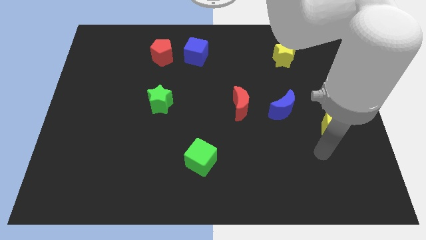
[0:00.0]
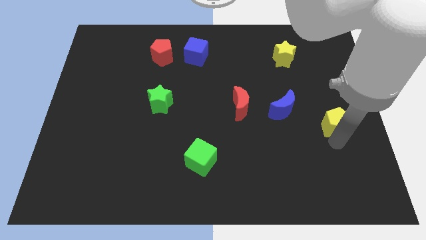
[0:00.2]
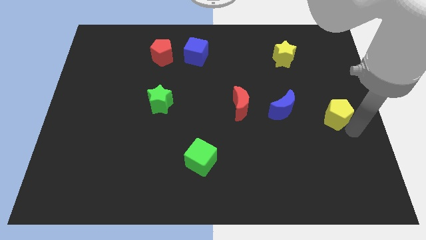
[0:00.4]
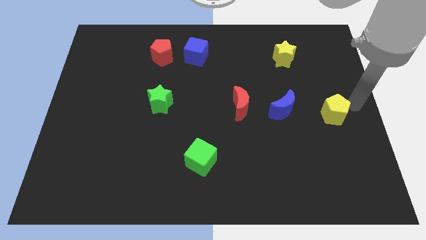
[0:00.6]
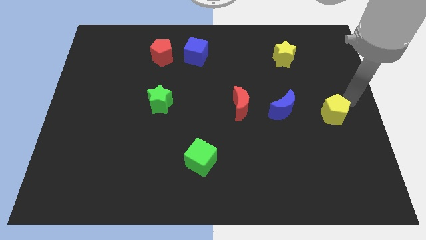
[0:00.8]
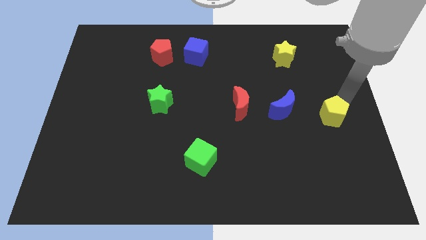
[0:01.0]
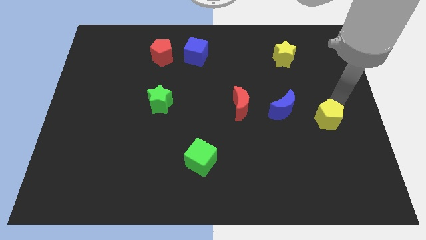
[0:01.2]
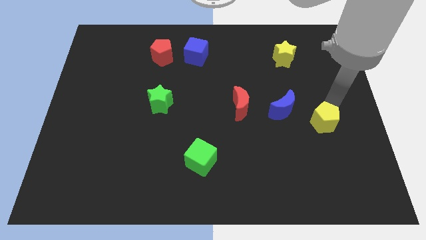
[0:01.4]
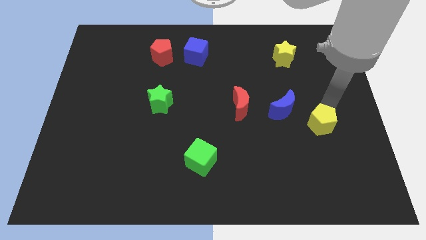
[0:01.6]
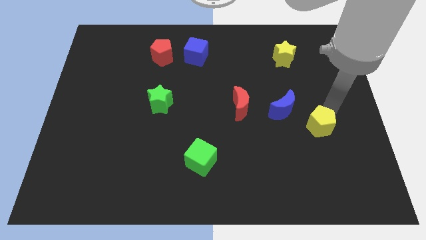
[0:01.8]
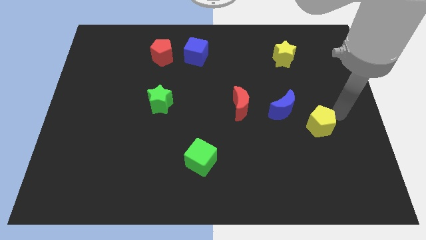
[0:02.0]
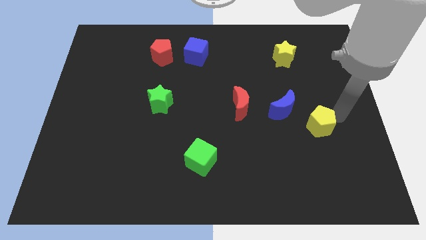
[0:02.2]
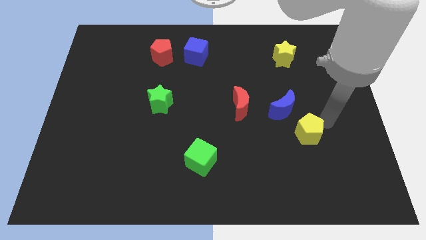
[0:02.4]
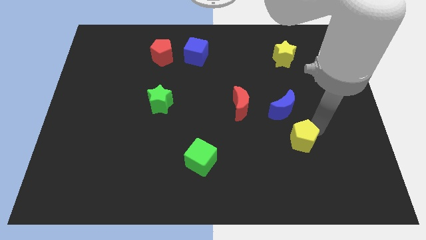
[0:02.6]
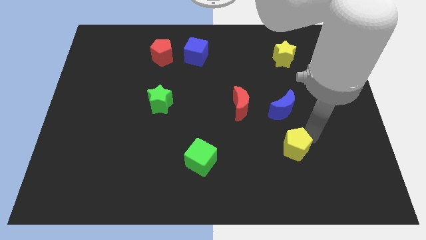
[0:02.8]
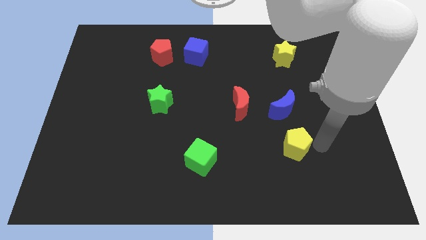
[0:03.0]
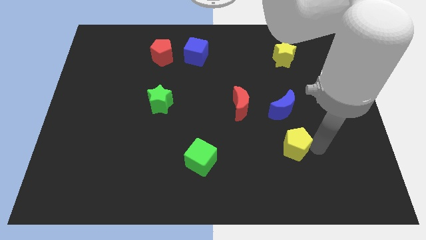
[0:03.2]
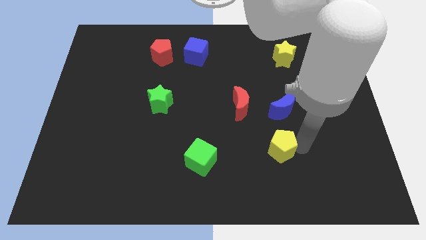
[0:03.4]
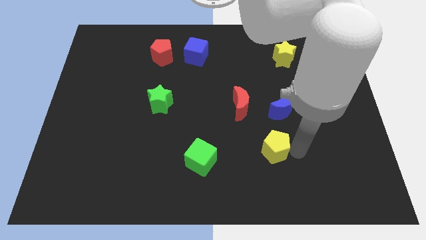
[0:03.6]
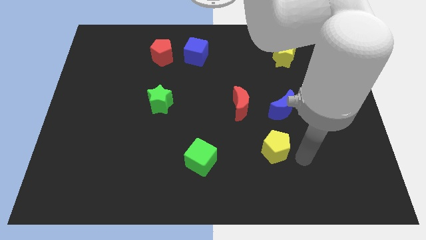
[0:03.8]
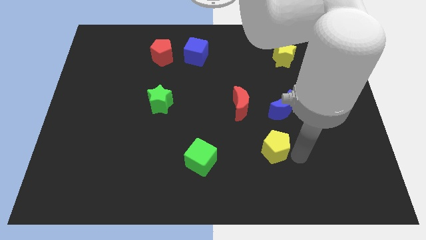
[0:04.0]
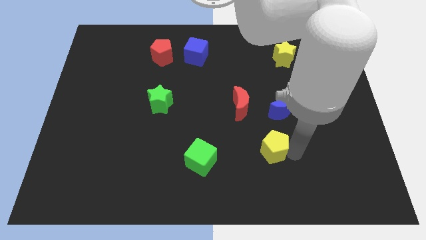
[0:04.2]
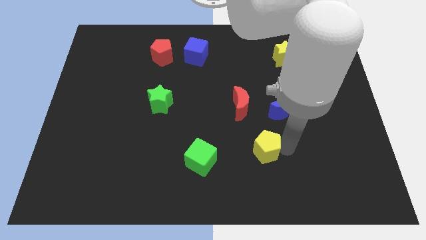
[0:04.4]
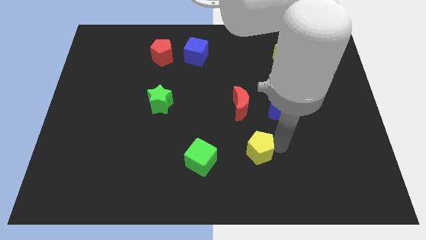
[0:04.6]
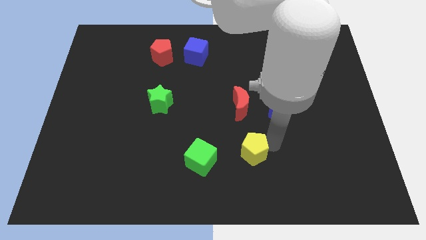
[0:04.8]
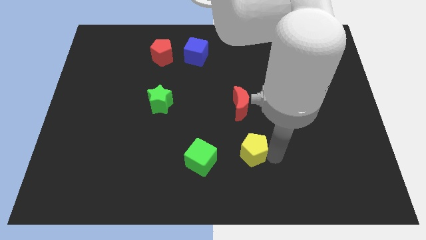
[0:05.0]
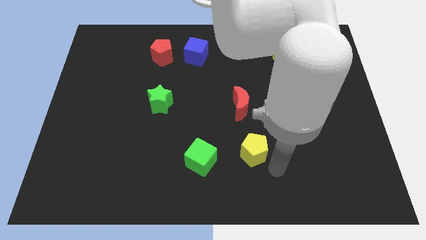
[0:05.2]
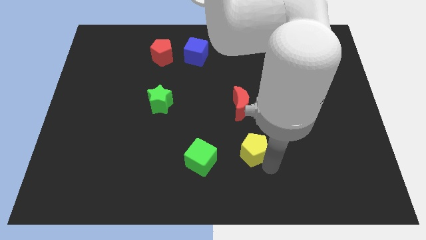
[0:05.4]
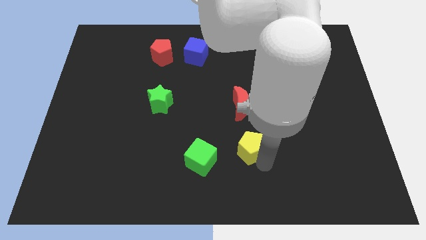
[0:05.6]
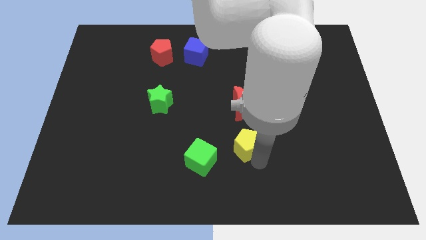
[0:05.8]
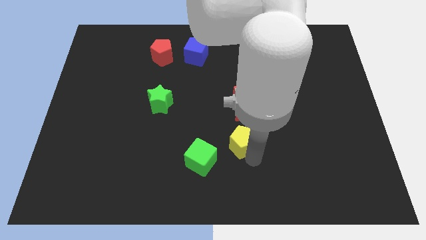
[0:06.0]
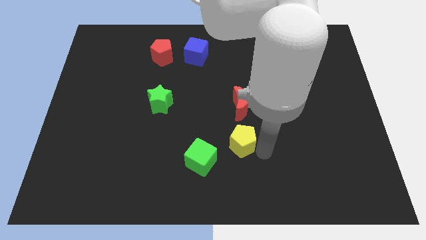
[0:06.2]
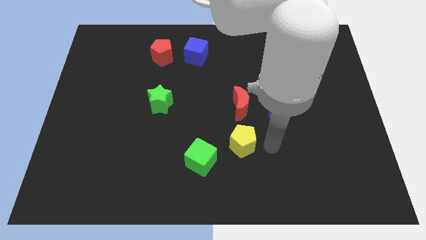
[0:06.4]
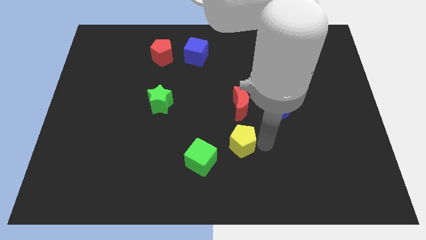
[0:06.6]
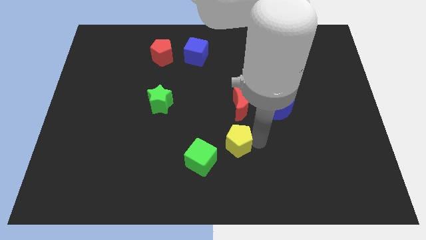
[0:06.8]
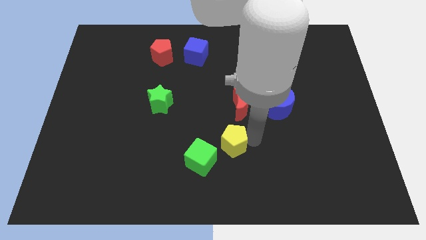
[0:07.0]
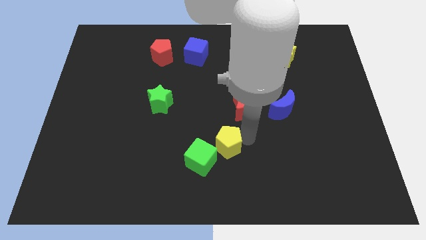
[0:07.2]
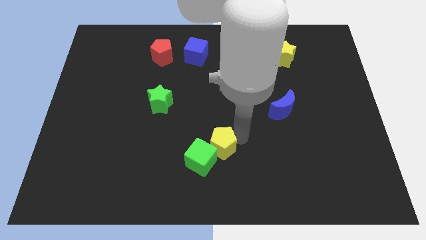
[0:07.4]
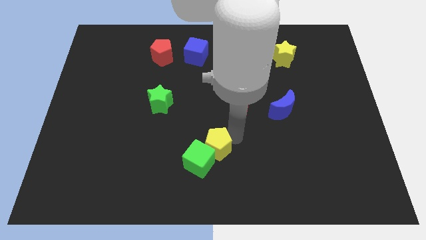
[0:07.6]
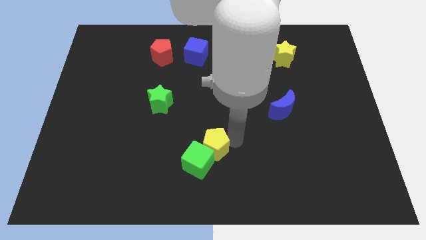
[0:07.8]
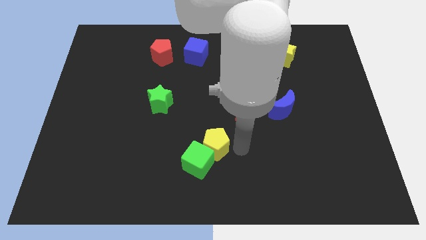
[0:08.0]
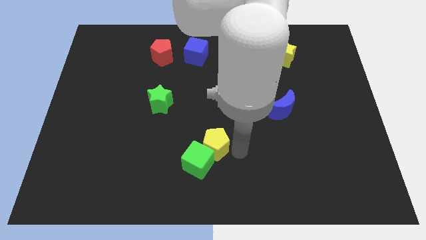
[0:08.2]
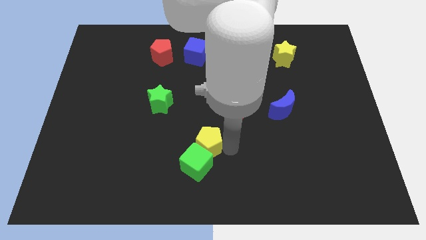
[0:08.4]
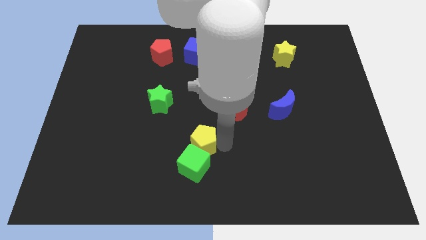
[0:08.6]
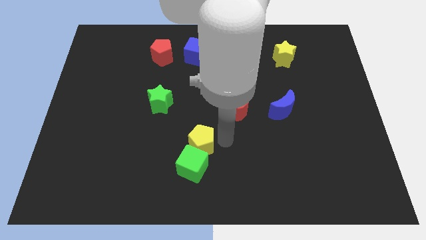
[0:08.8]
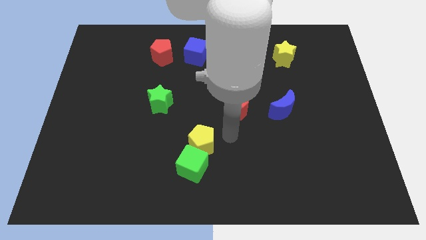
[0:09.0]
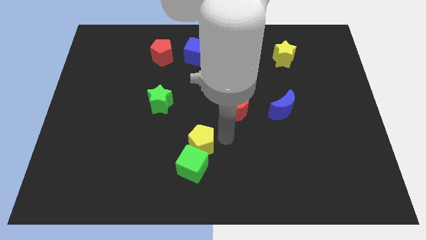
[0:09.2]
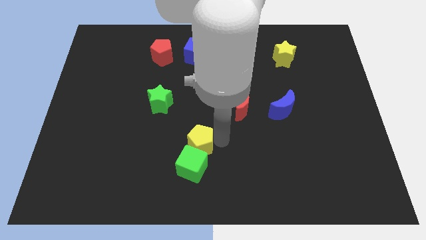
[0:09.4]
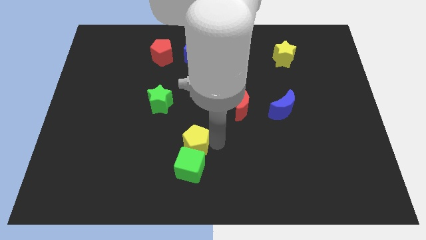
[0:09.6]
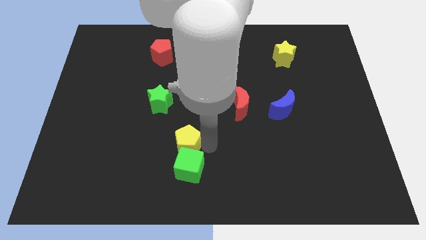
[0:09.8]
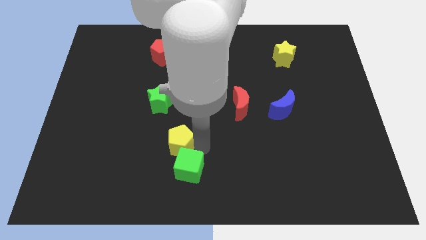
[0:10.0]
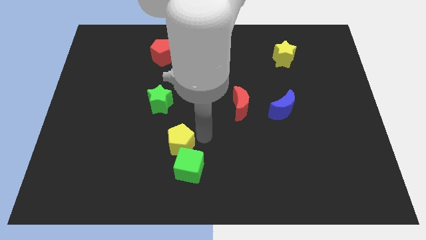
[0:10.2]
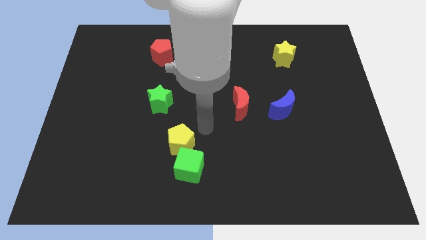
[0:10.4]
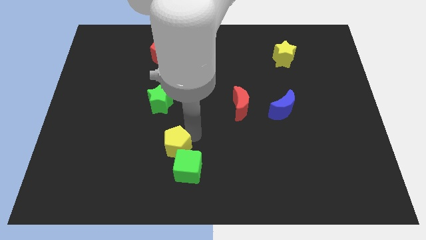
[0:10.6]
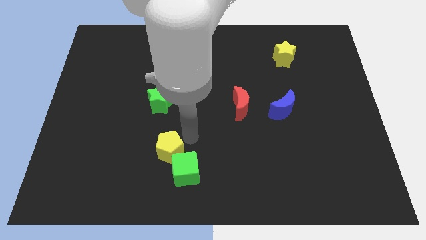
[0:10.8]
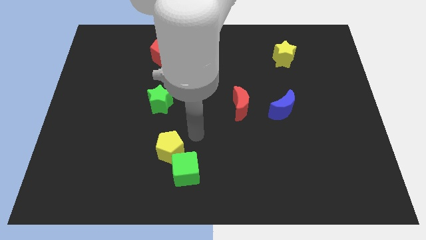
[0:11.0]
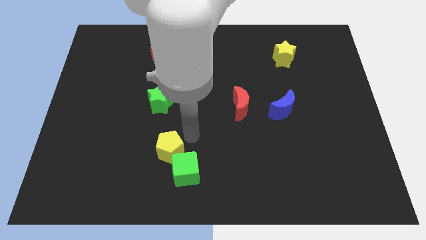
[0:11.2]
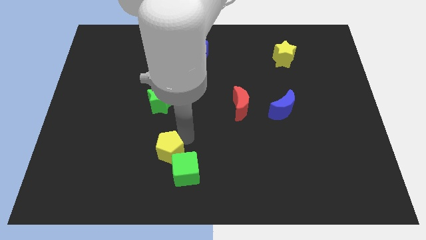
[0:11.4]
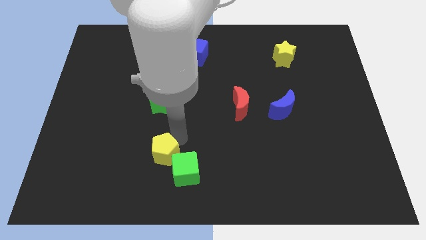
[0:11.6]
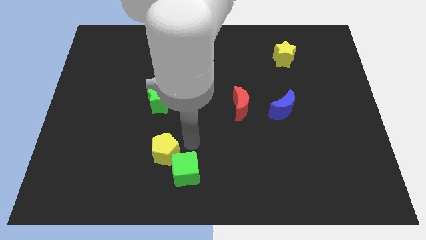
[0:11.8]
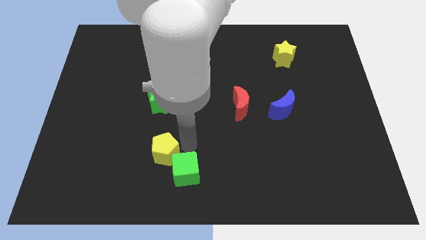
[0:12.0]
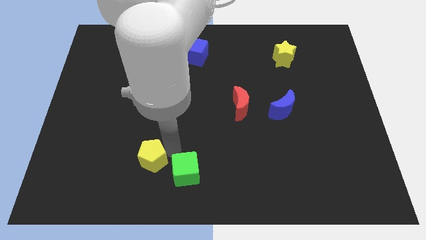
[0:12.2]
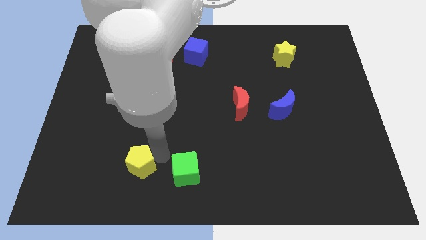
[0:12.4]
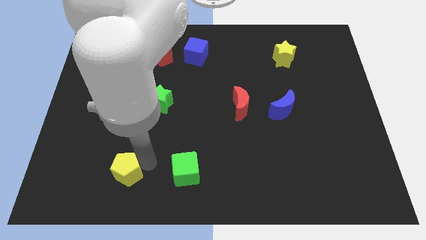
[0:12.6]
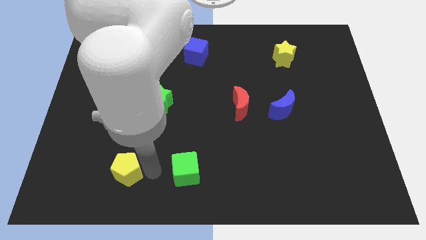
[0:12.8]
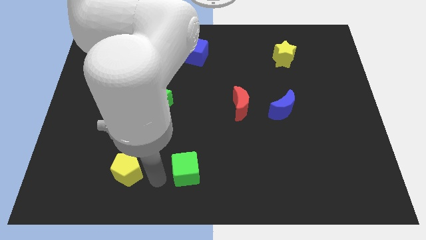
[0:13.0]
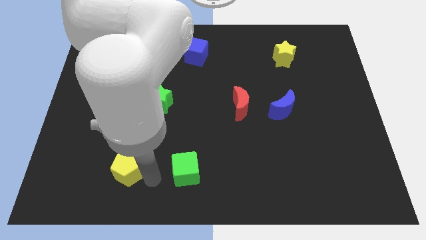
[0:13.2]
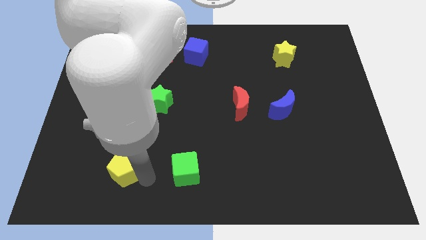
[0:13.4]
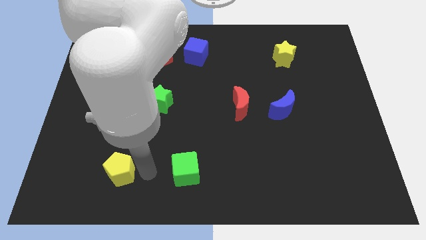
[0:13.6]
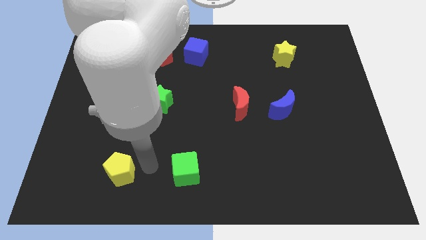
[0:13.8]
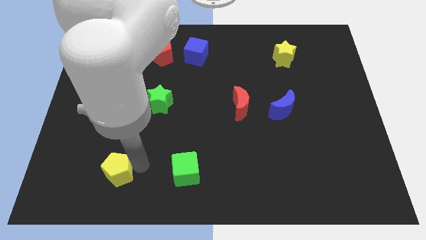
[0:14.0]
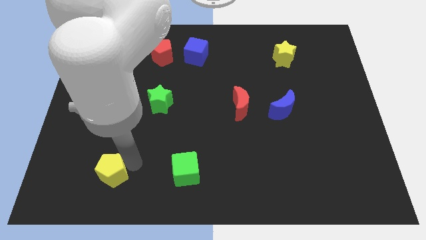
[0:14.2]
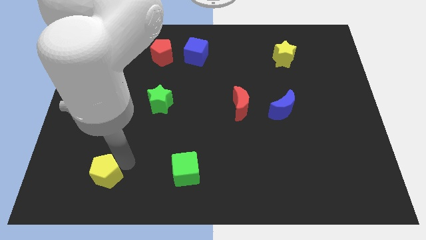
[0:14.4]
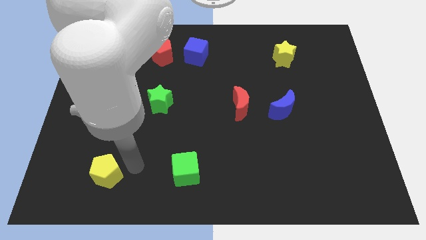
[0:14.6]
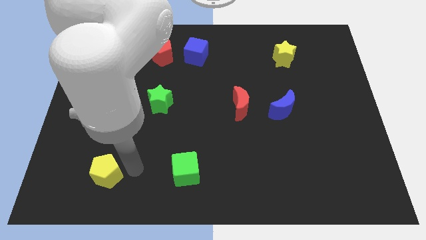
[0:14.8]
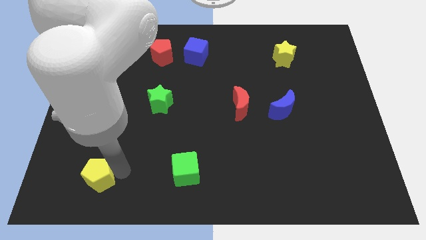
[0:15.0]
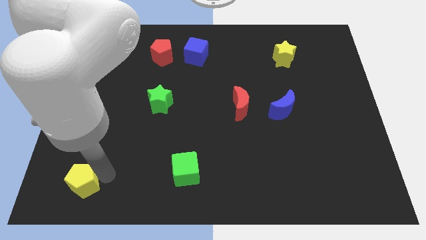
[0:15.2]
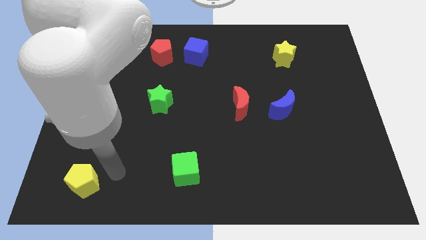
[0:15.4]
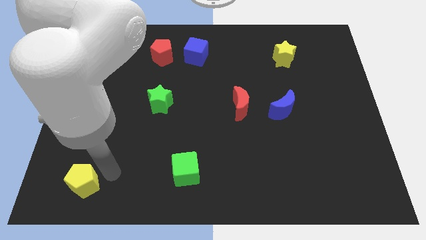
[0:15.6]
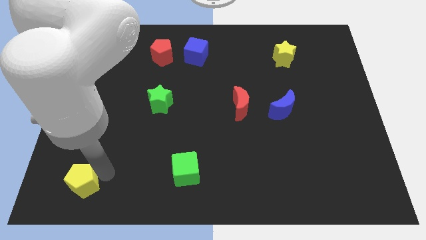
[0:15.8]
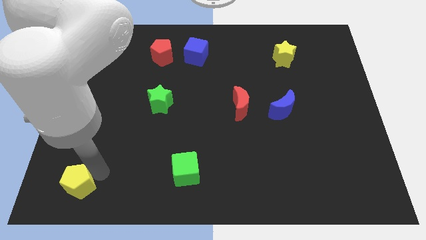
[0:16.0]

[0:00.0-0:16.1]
push the yellow pentagon to the bottom left of the board
